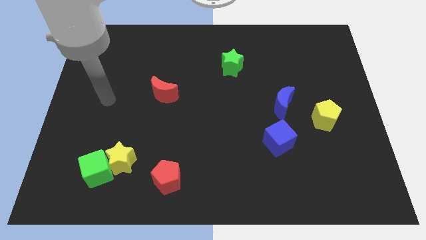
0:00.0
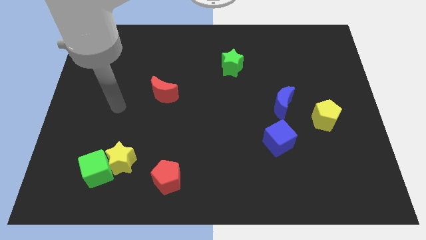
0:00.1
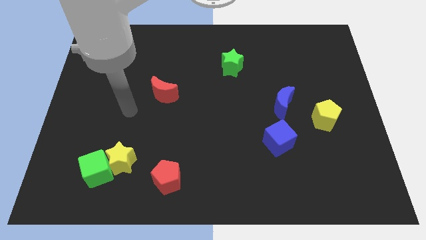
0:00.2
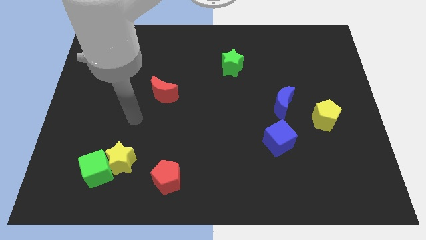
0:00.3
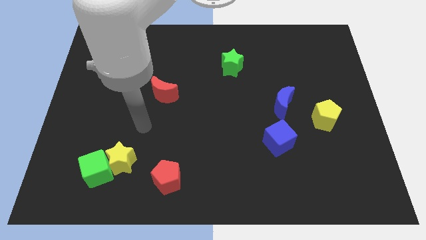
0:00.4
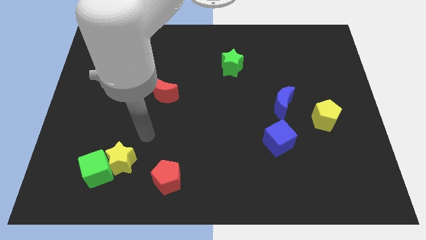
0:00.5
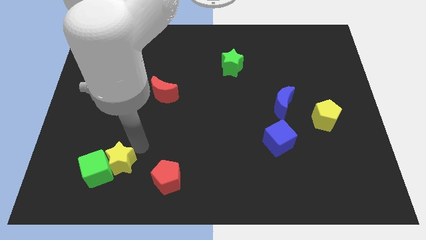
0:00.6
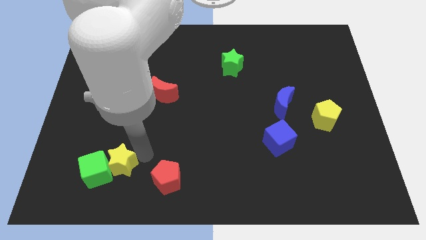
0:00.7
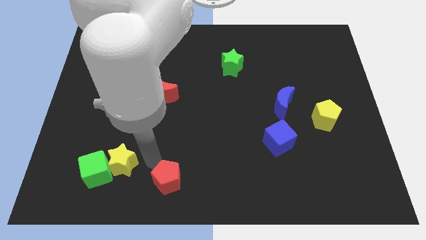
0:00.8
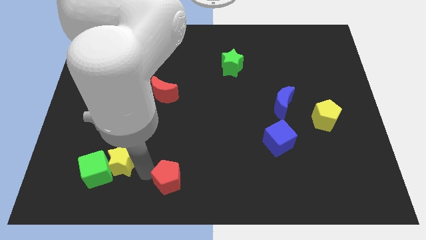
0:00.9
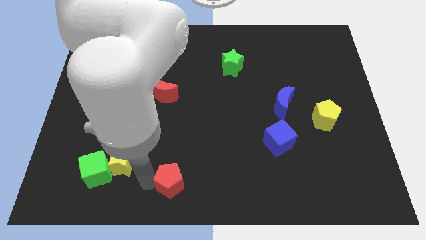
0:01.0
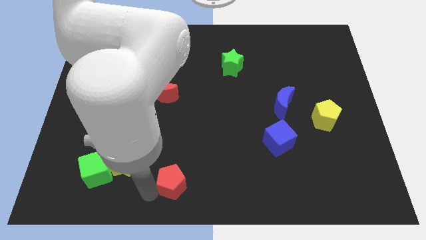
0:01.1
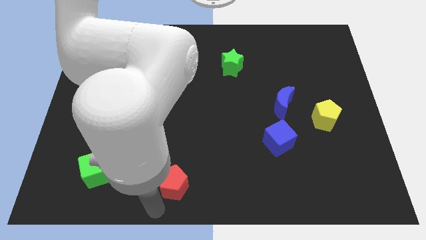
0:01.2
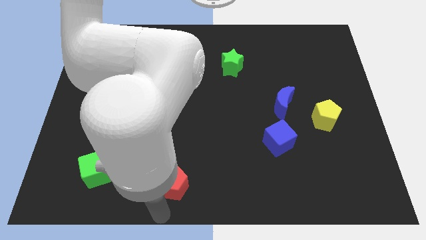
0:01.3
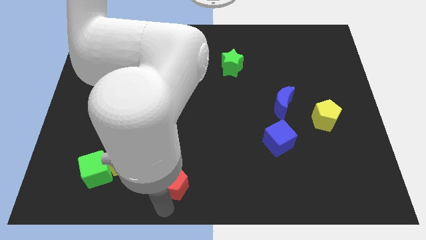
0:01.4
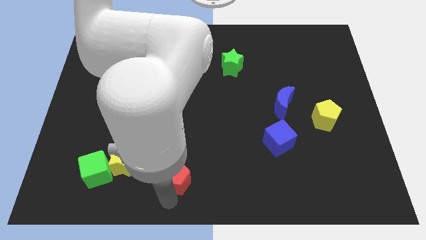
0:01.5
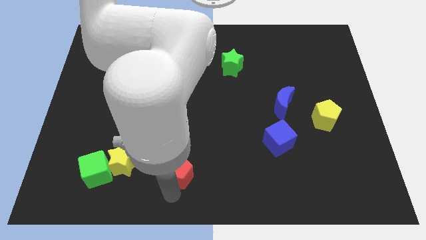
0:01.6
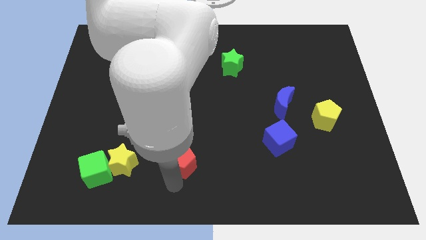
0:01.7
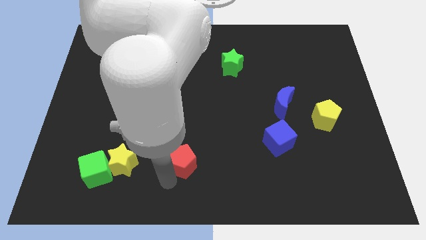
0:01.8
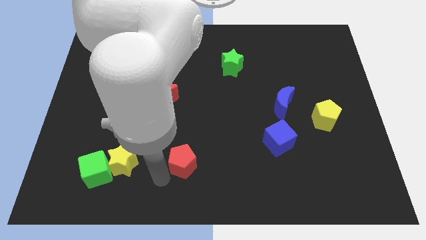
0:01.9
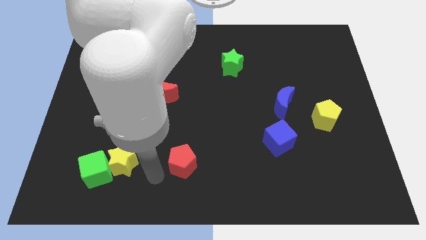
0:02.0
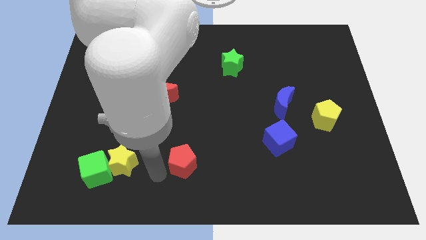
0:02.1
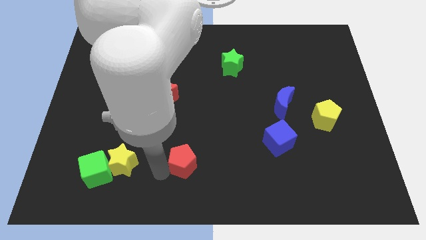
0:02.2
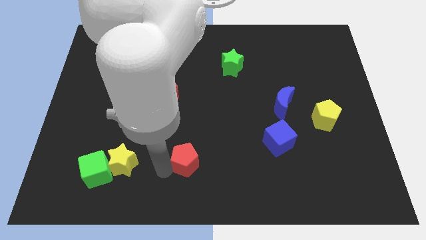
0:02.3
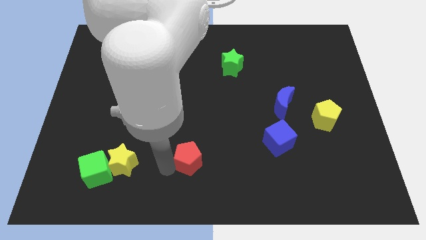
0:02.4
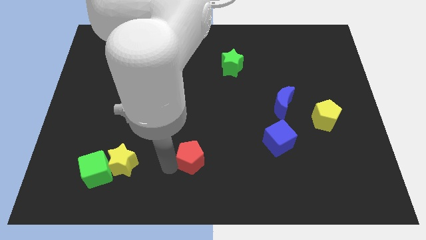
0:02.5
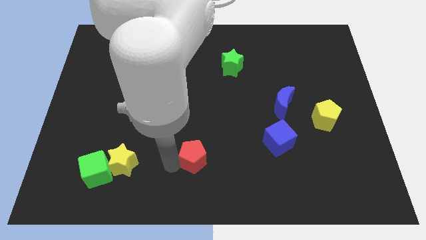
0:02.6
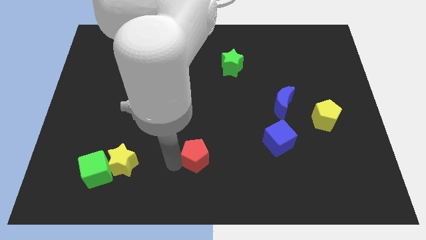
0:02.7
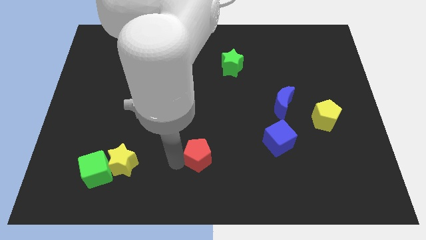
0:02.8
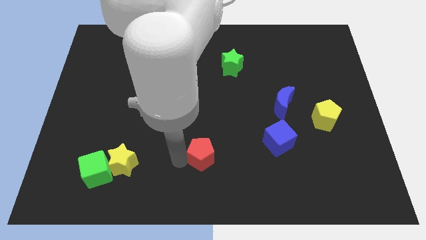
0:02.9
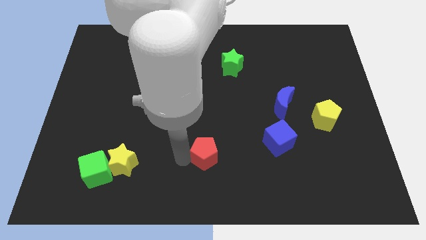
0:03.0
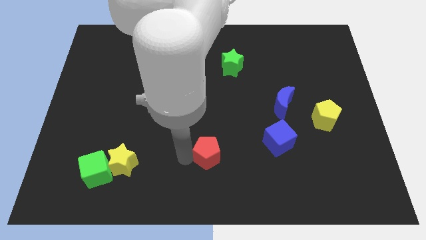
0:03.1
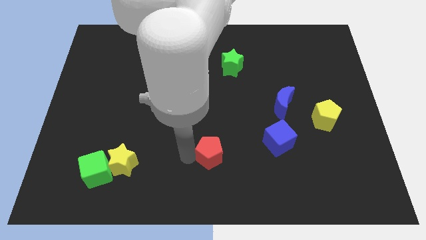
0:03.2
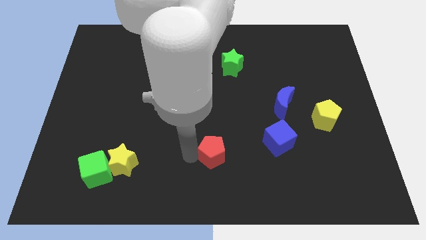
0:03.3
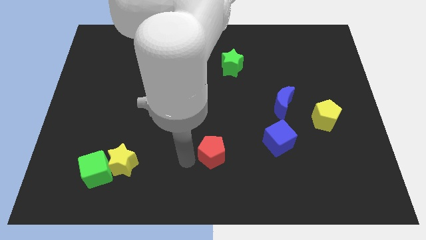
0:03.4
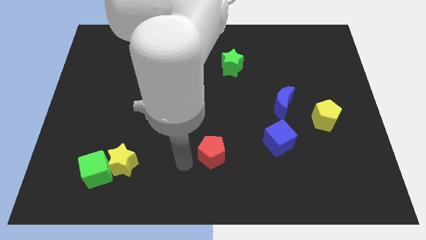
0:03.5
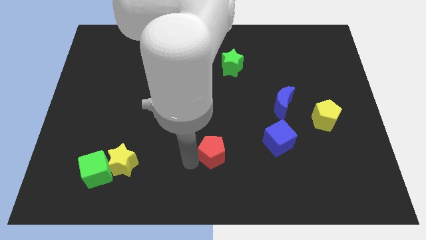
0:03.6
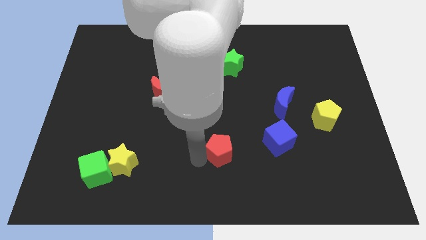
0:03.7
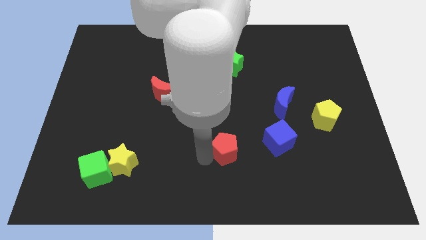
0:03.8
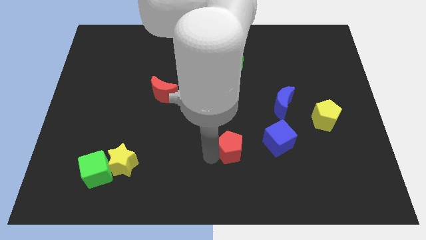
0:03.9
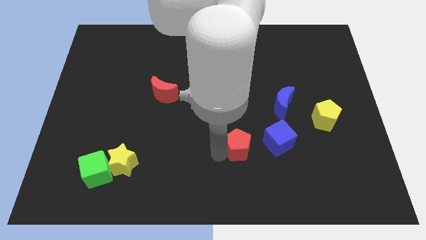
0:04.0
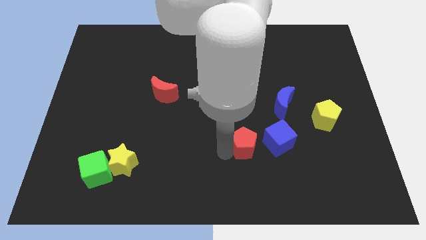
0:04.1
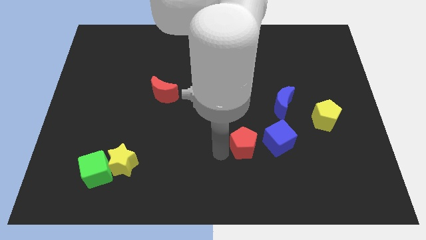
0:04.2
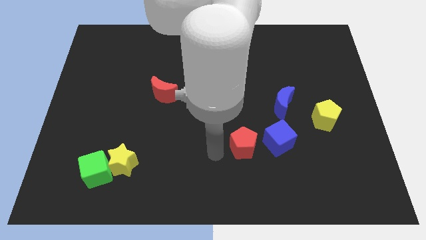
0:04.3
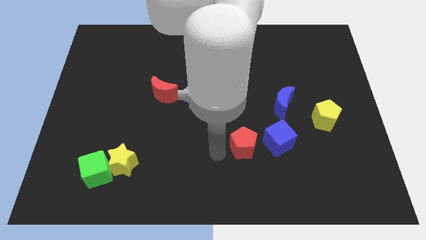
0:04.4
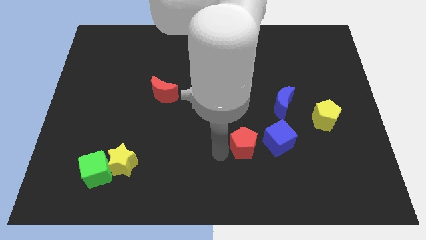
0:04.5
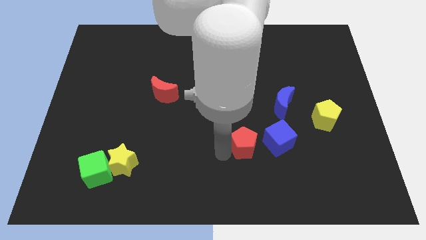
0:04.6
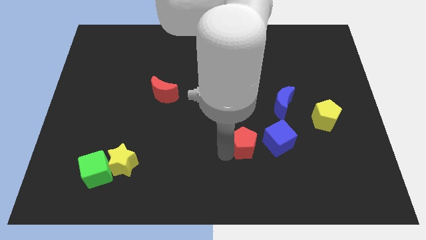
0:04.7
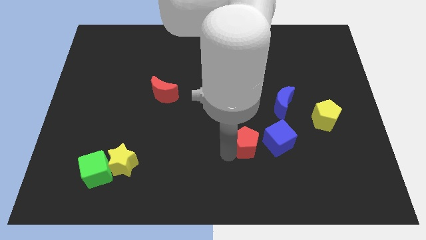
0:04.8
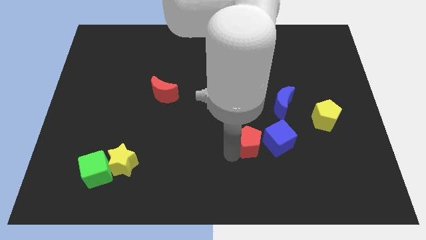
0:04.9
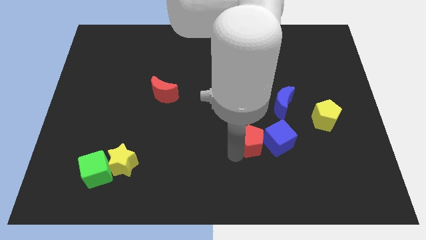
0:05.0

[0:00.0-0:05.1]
put the red pentagon next to the blue cube

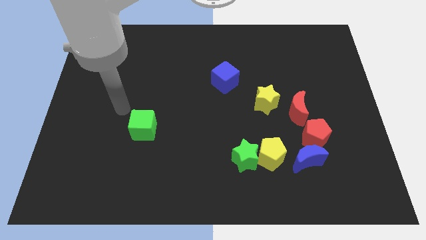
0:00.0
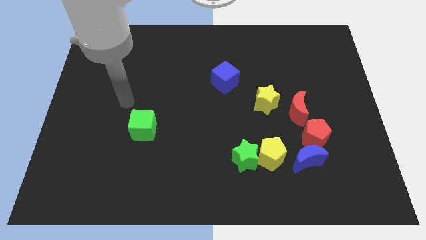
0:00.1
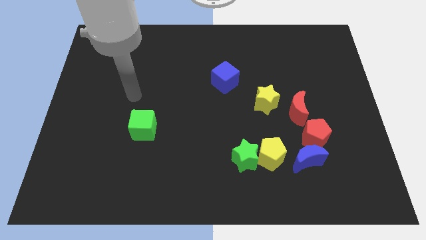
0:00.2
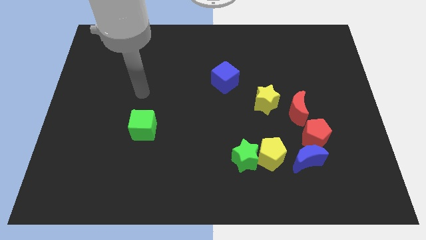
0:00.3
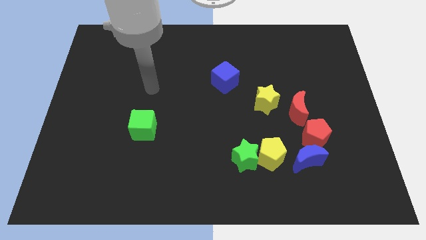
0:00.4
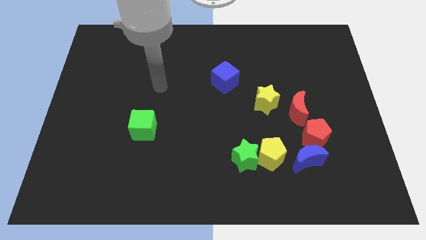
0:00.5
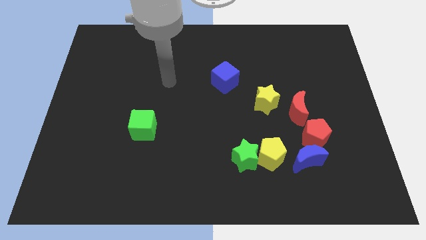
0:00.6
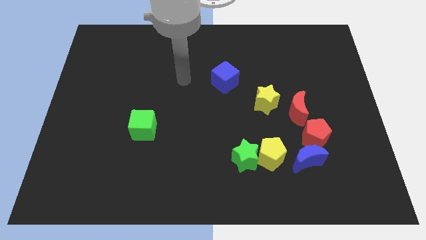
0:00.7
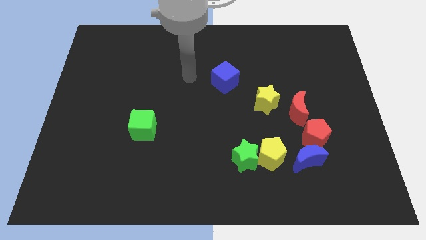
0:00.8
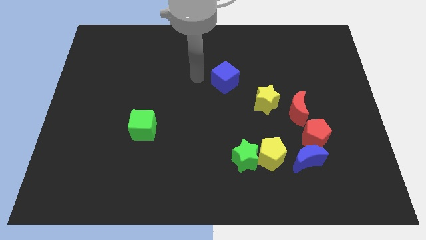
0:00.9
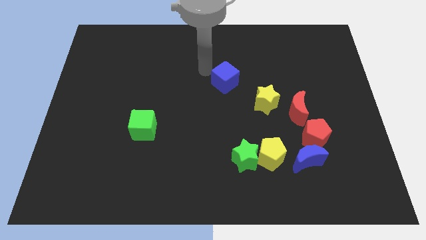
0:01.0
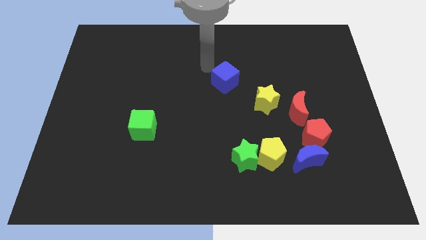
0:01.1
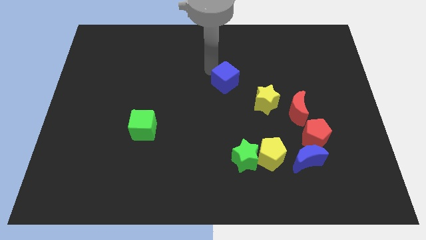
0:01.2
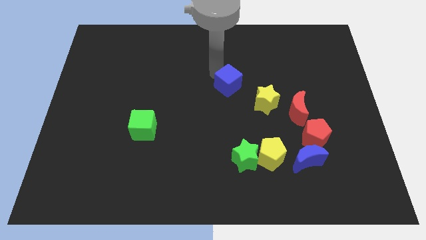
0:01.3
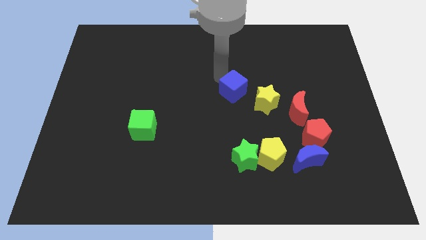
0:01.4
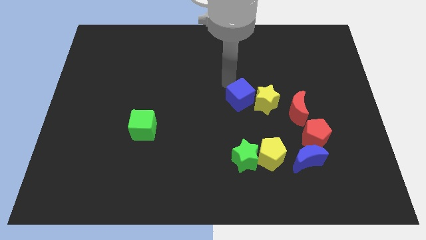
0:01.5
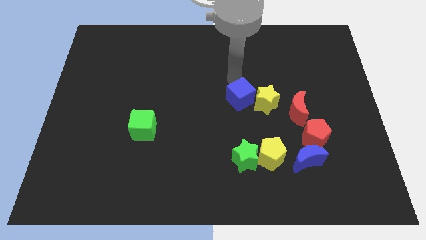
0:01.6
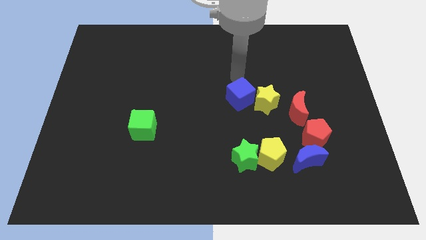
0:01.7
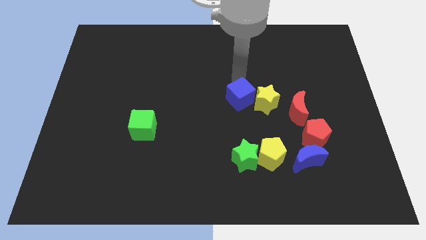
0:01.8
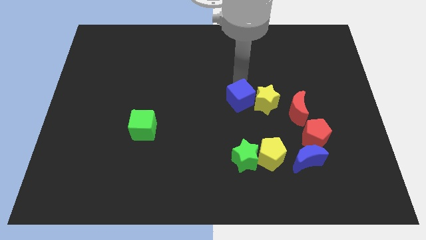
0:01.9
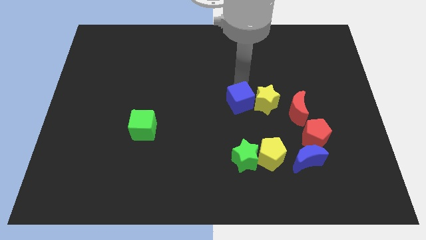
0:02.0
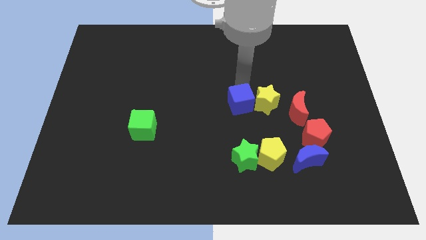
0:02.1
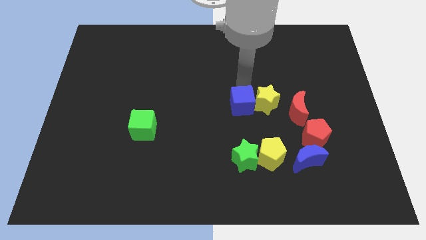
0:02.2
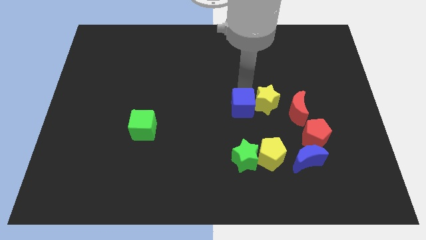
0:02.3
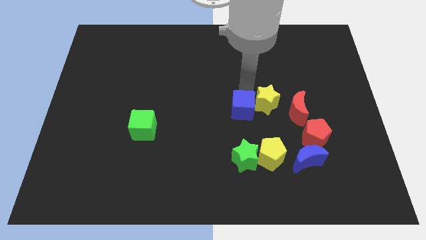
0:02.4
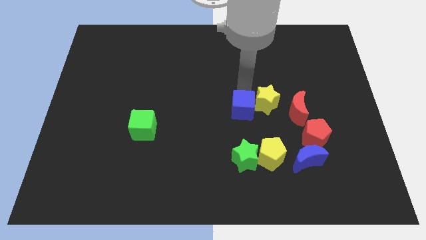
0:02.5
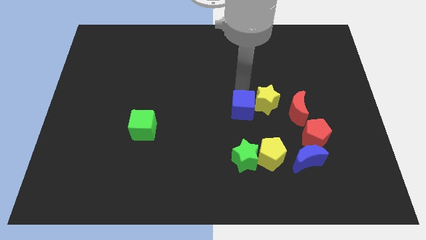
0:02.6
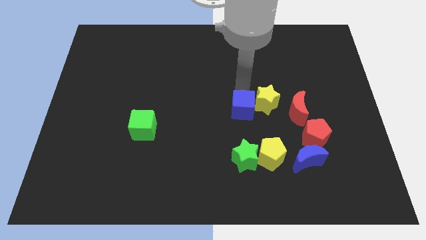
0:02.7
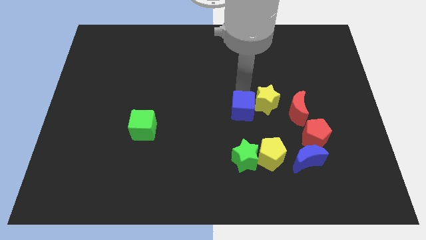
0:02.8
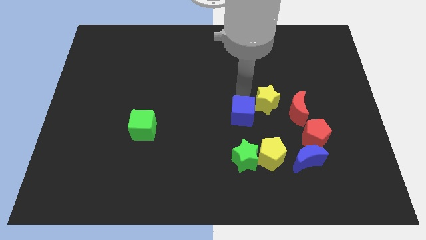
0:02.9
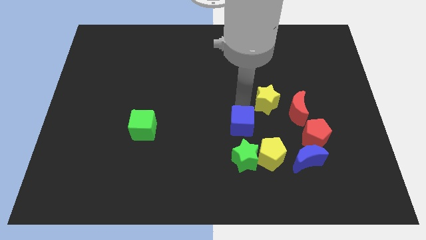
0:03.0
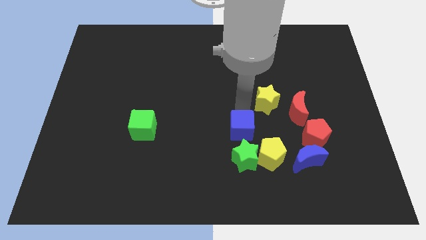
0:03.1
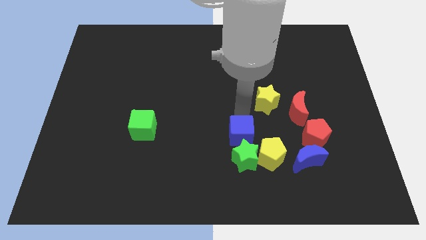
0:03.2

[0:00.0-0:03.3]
move the blue cube close to the green star
